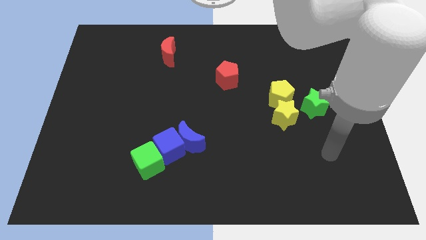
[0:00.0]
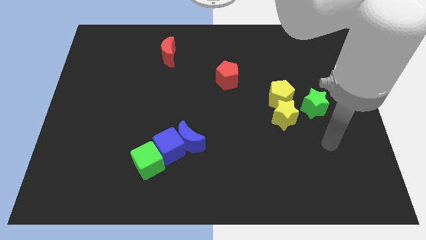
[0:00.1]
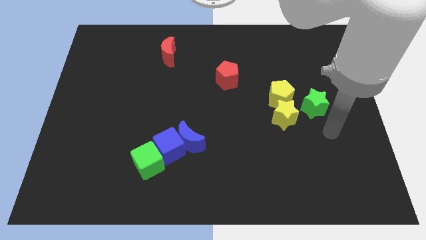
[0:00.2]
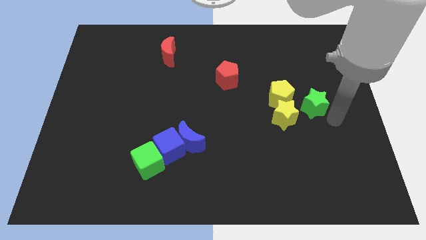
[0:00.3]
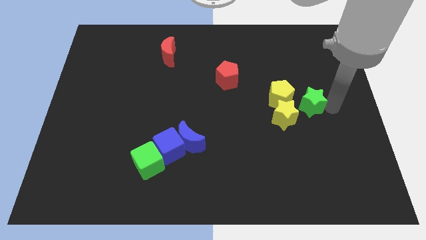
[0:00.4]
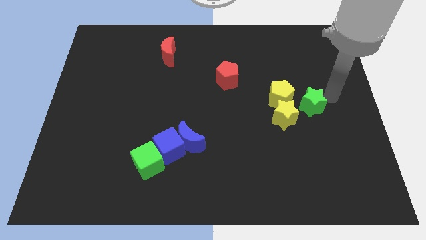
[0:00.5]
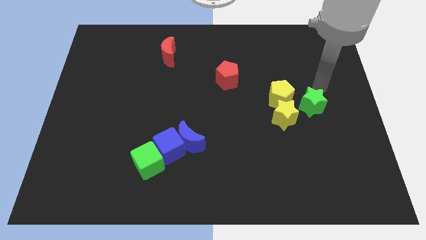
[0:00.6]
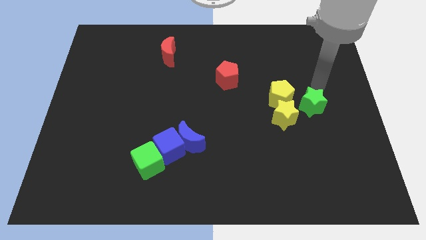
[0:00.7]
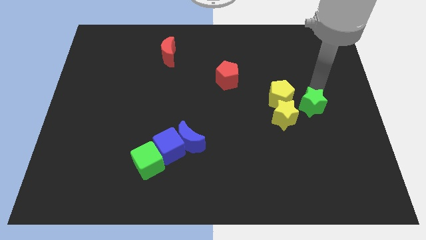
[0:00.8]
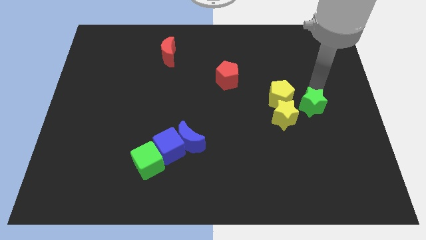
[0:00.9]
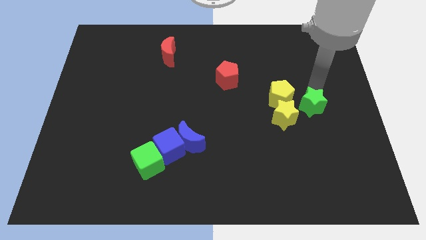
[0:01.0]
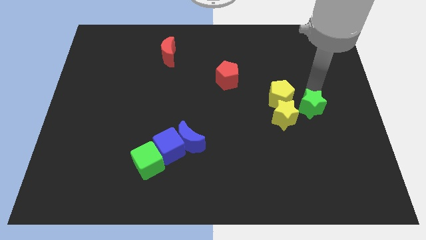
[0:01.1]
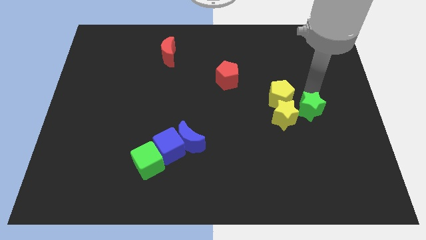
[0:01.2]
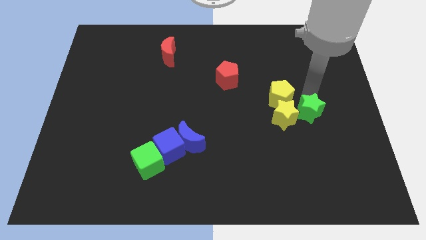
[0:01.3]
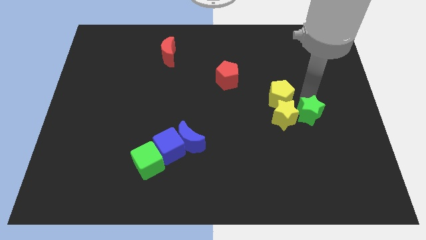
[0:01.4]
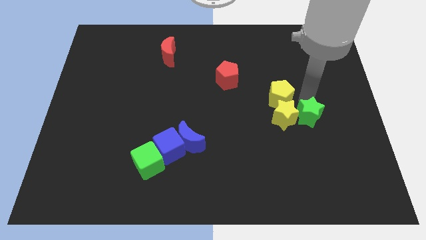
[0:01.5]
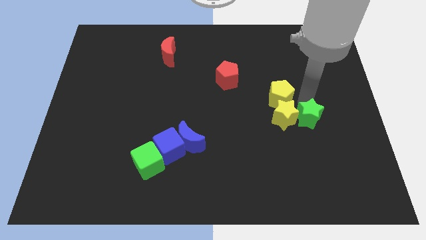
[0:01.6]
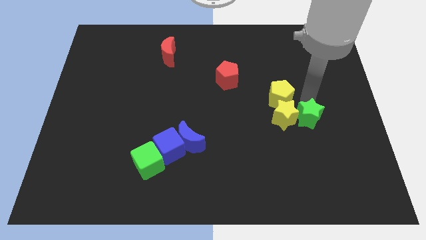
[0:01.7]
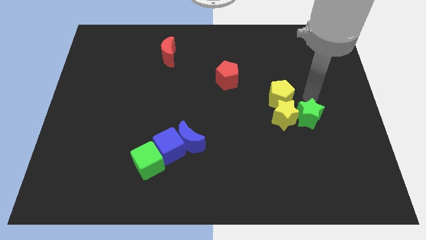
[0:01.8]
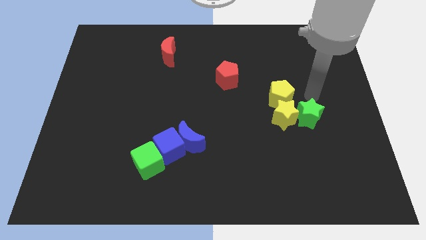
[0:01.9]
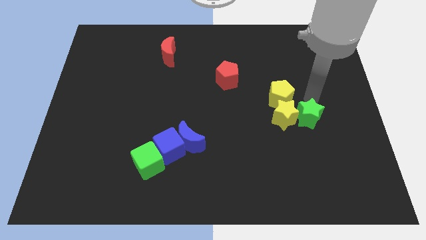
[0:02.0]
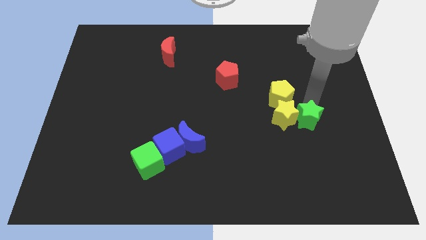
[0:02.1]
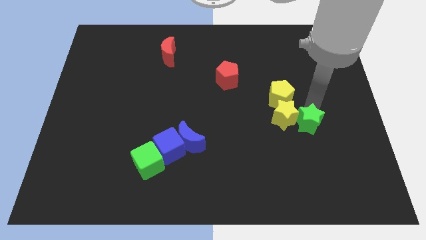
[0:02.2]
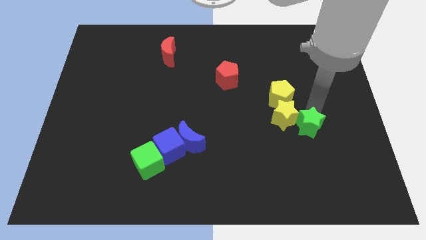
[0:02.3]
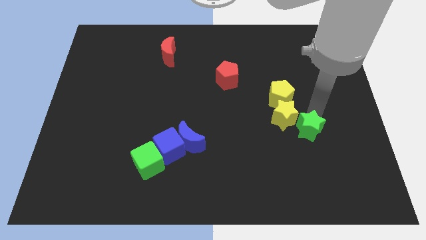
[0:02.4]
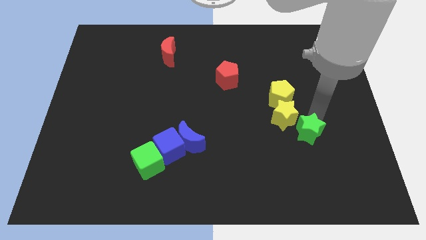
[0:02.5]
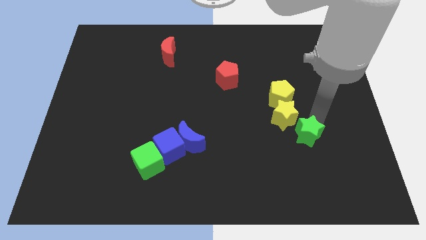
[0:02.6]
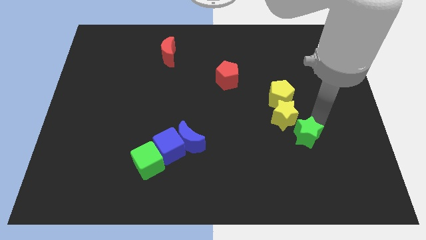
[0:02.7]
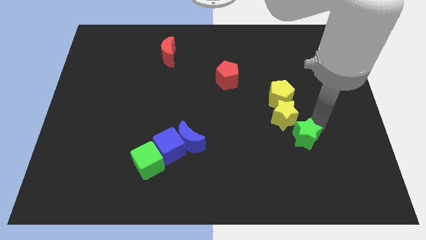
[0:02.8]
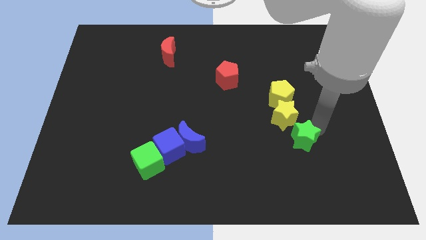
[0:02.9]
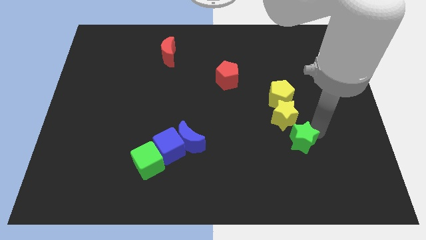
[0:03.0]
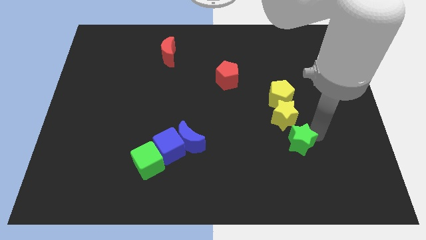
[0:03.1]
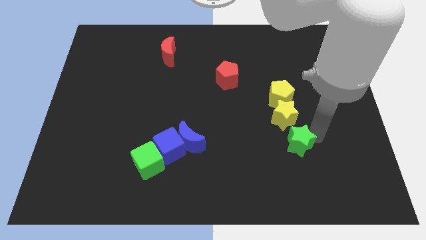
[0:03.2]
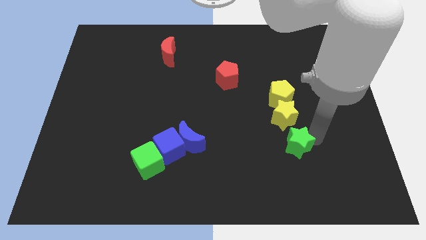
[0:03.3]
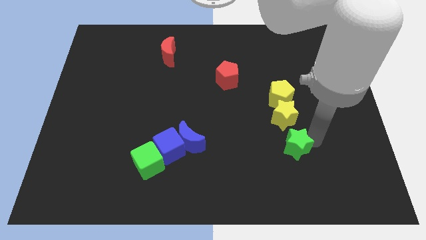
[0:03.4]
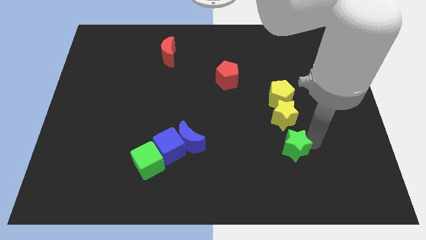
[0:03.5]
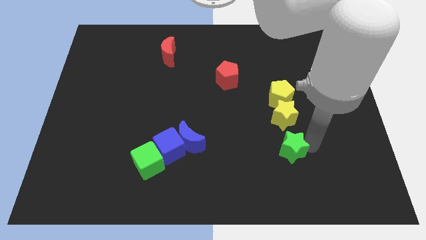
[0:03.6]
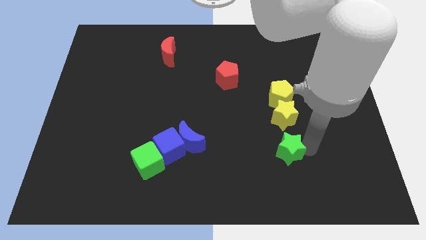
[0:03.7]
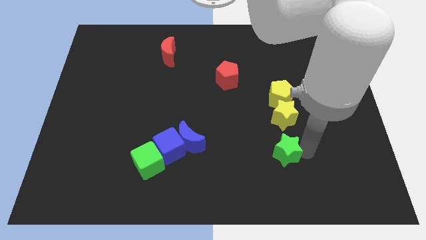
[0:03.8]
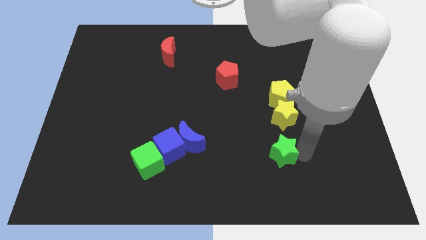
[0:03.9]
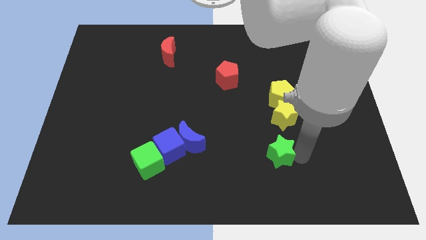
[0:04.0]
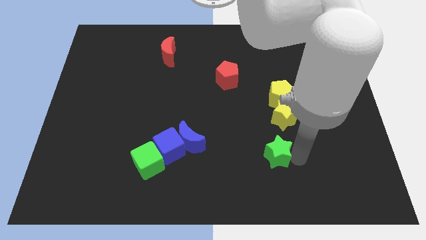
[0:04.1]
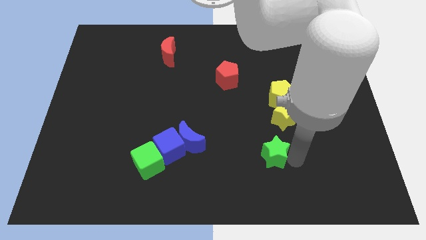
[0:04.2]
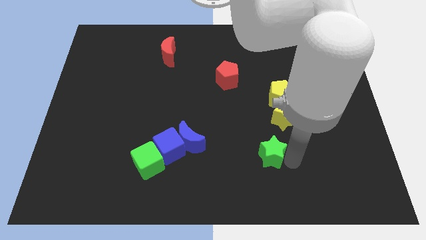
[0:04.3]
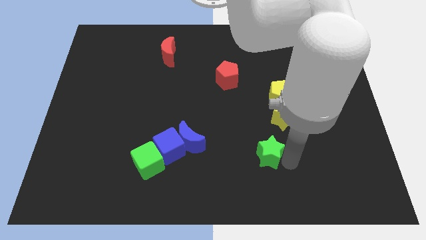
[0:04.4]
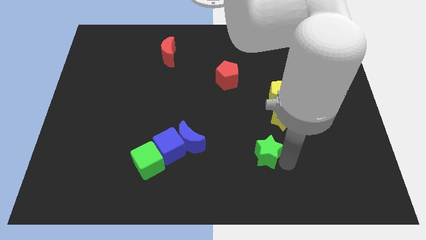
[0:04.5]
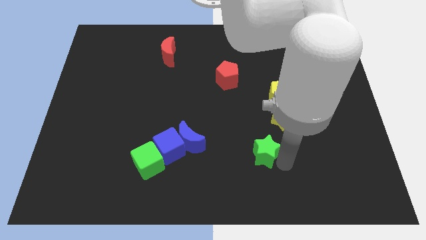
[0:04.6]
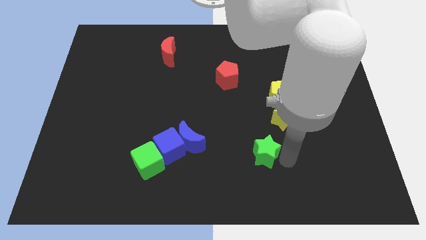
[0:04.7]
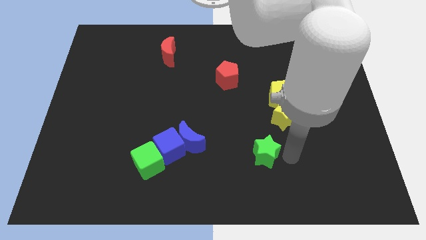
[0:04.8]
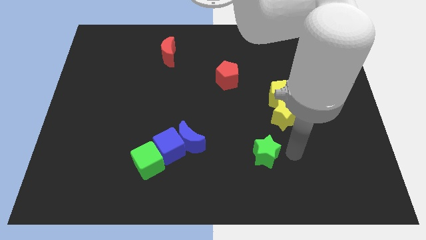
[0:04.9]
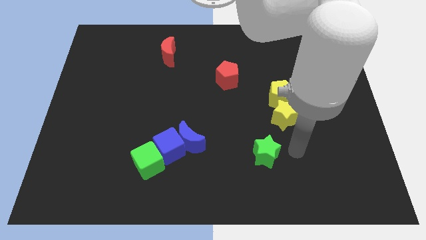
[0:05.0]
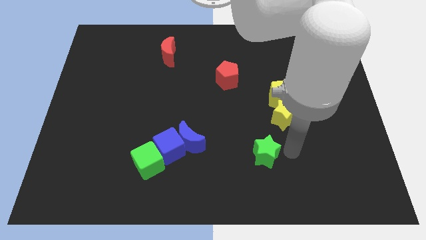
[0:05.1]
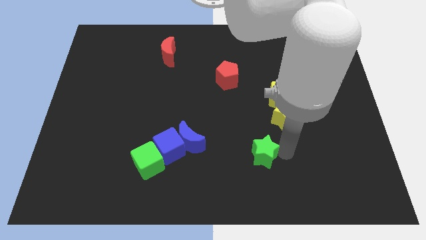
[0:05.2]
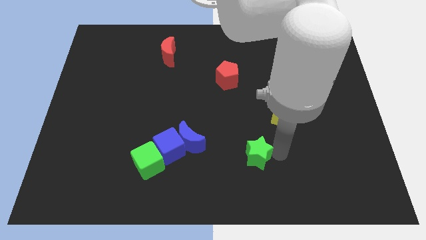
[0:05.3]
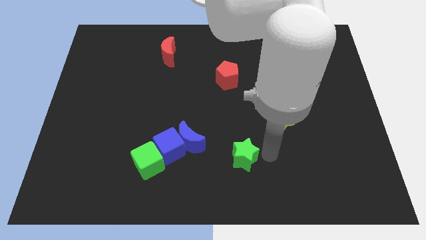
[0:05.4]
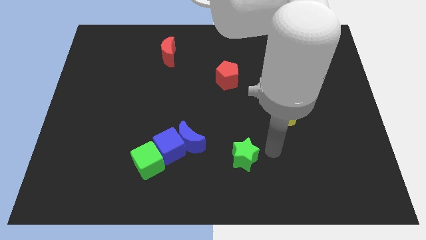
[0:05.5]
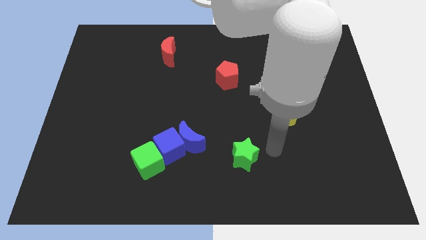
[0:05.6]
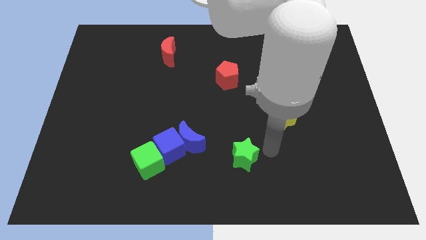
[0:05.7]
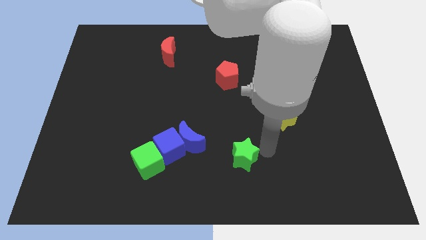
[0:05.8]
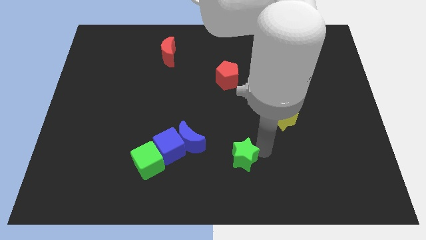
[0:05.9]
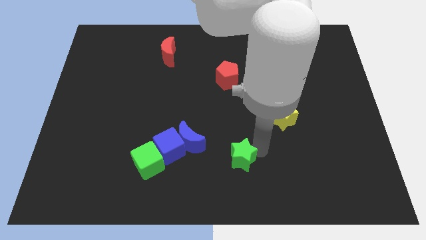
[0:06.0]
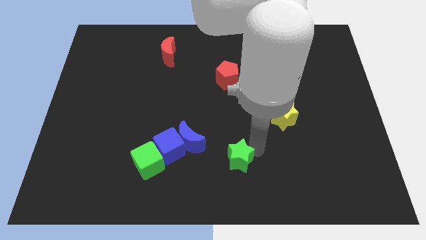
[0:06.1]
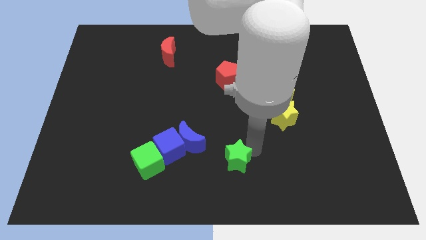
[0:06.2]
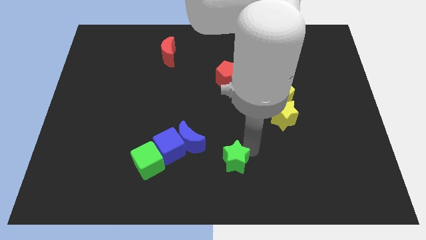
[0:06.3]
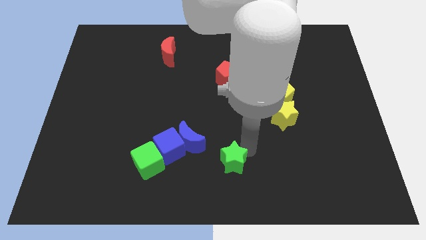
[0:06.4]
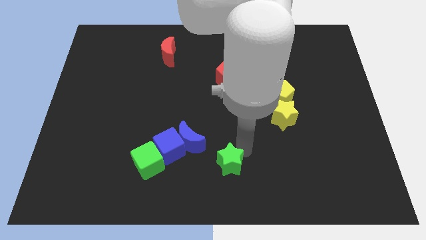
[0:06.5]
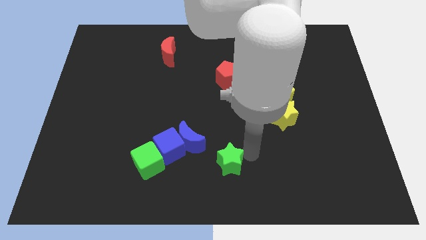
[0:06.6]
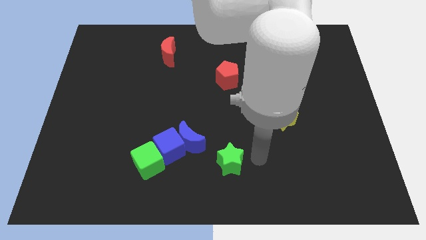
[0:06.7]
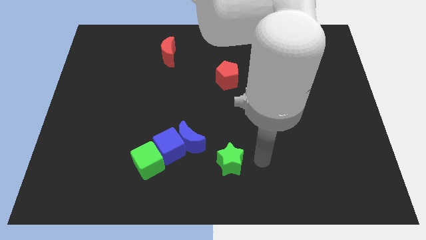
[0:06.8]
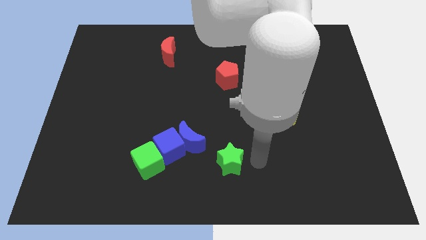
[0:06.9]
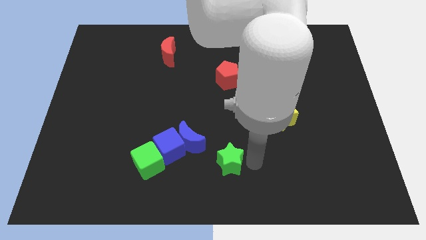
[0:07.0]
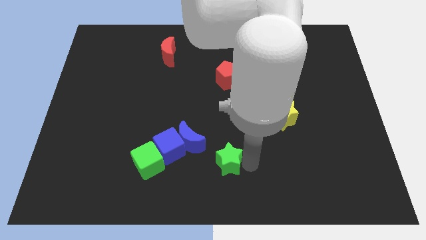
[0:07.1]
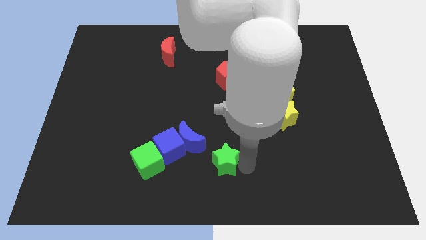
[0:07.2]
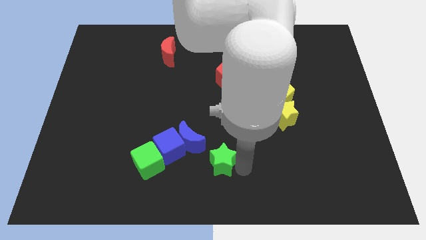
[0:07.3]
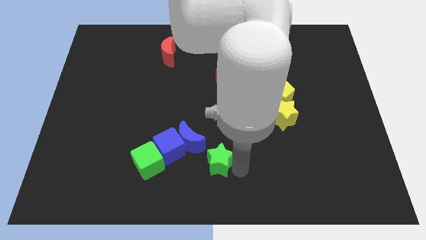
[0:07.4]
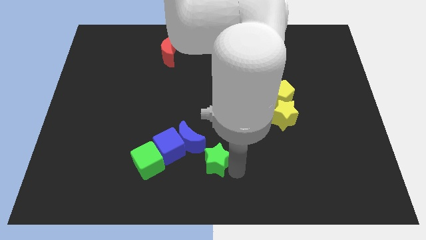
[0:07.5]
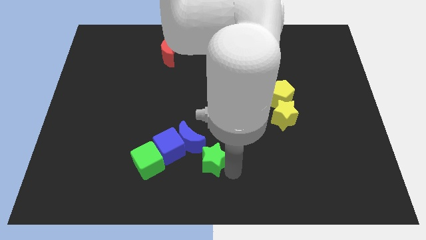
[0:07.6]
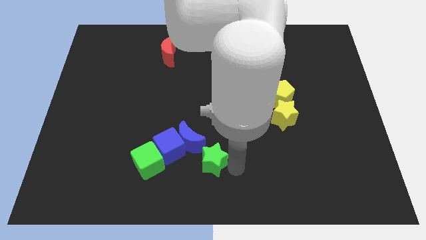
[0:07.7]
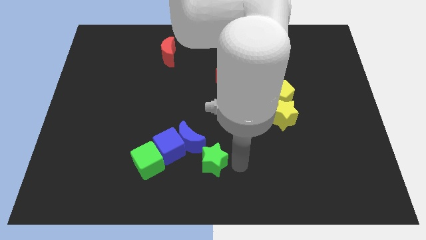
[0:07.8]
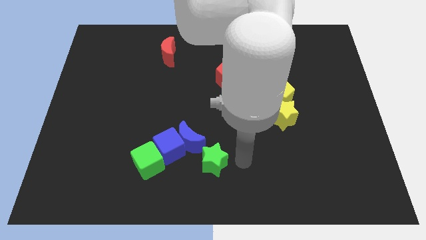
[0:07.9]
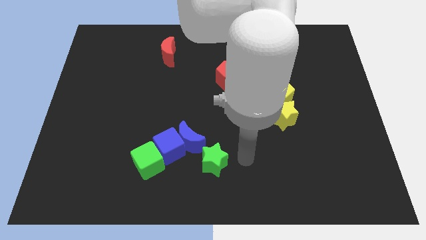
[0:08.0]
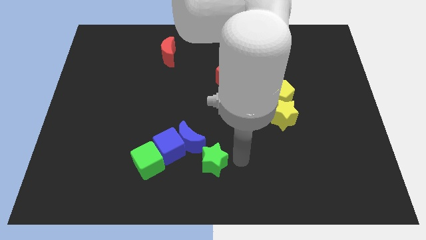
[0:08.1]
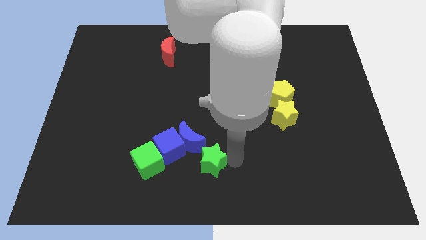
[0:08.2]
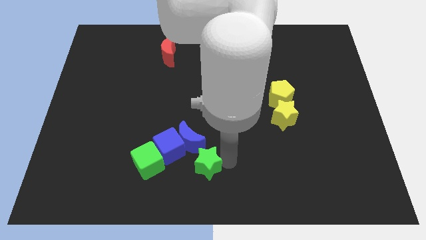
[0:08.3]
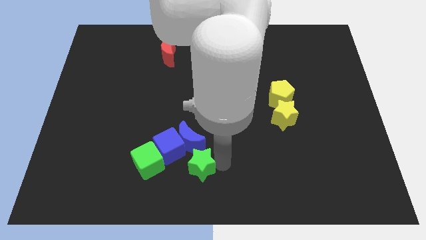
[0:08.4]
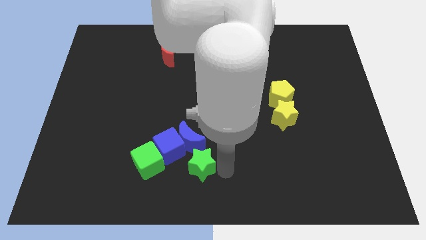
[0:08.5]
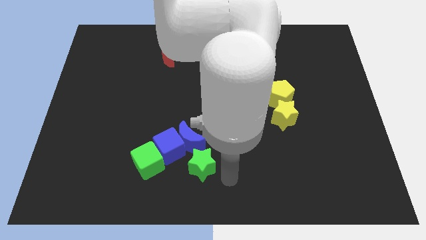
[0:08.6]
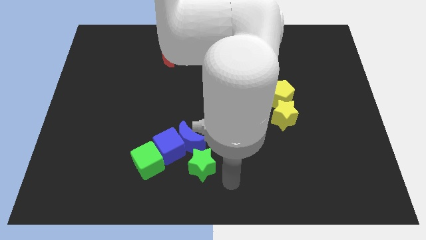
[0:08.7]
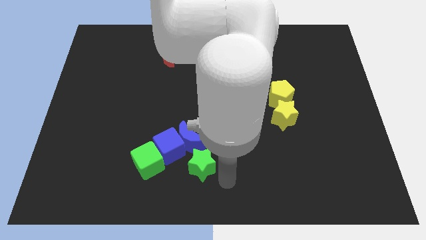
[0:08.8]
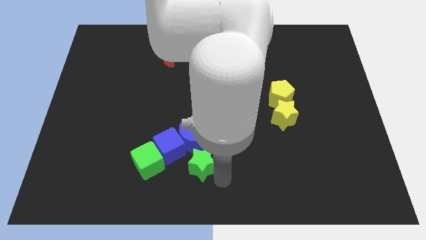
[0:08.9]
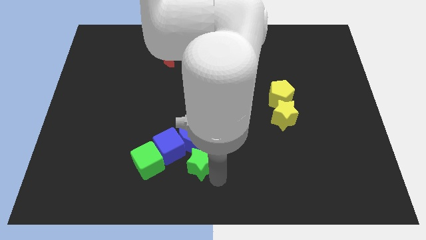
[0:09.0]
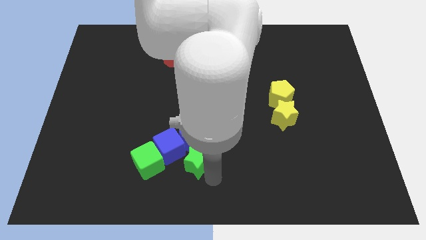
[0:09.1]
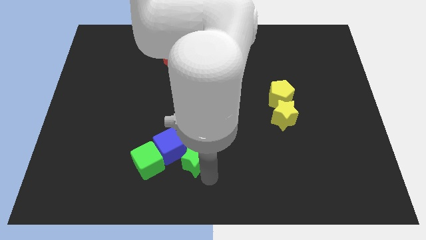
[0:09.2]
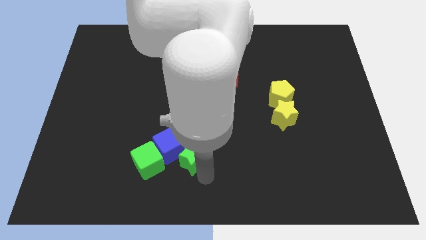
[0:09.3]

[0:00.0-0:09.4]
put the green star to the blue cube
